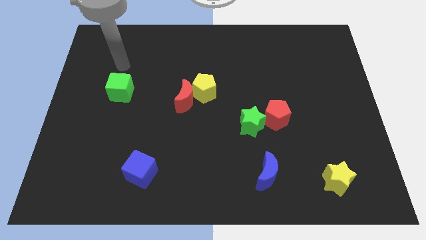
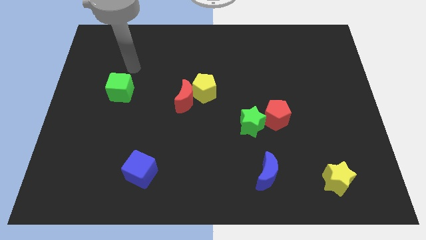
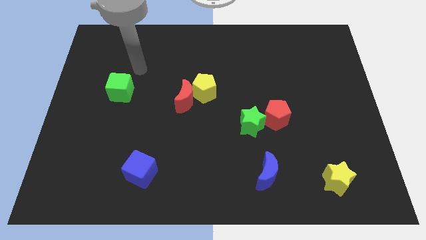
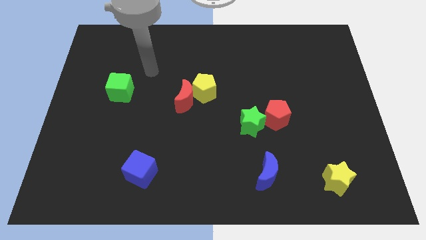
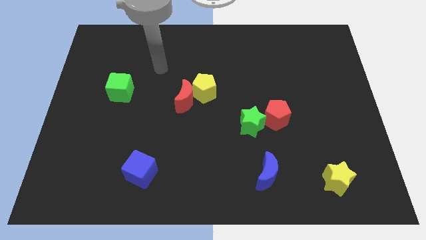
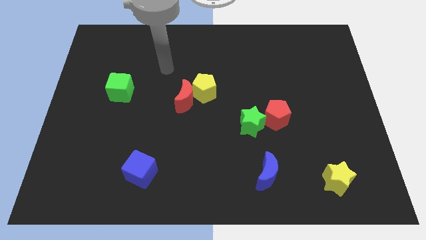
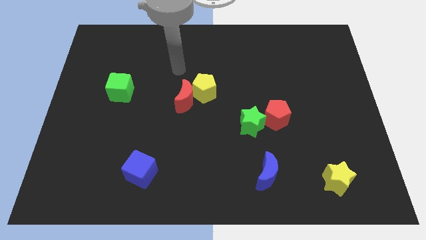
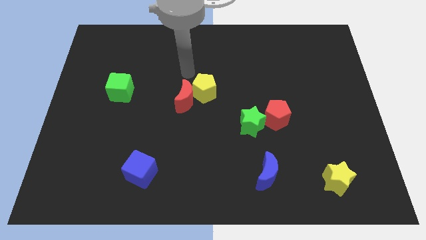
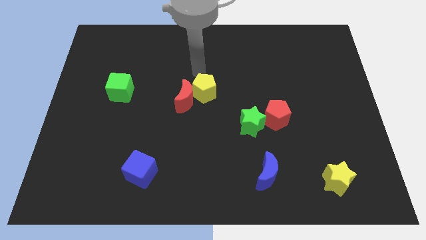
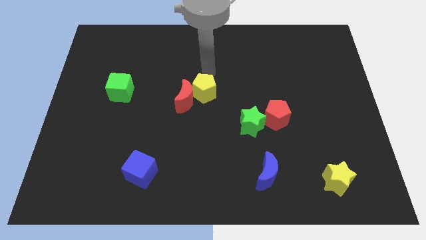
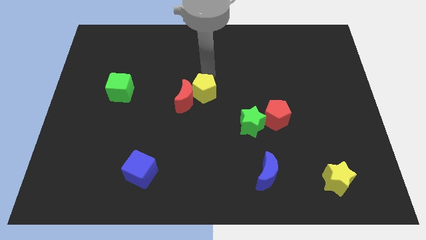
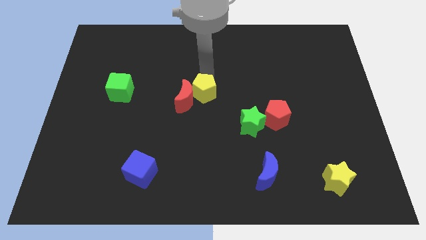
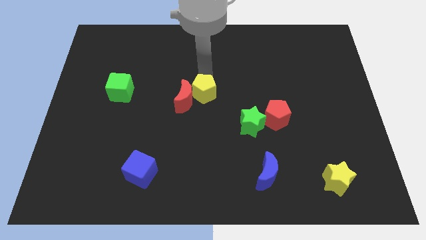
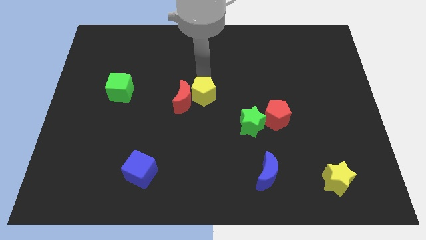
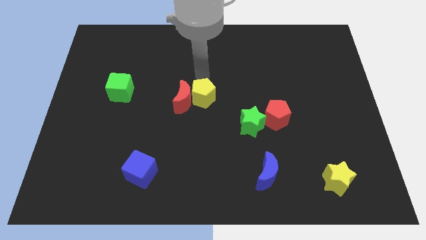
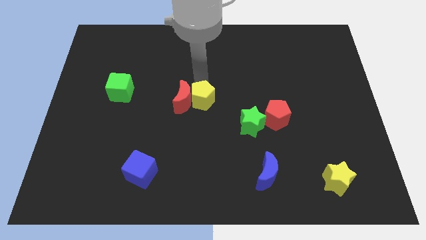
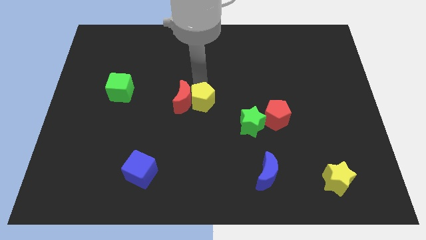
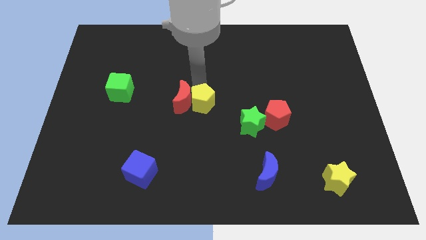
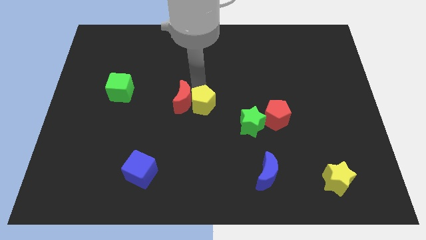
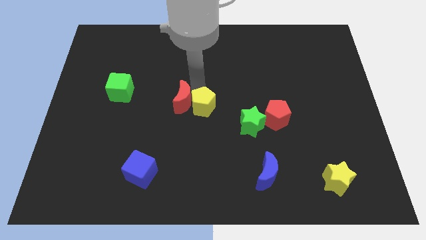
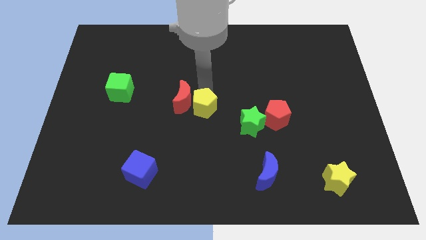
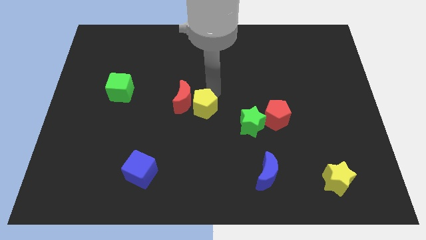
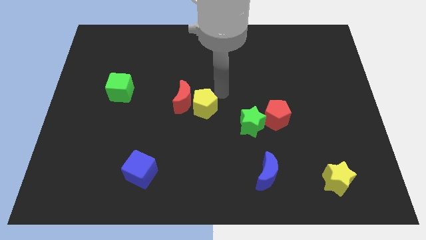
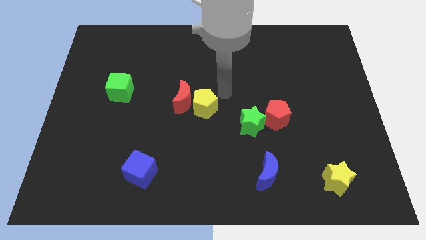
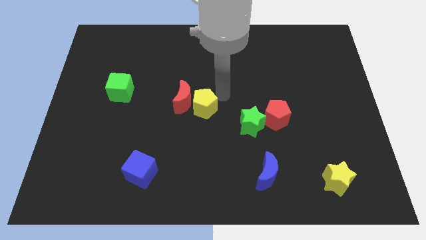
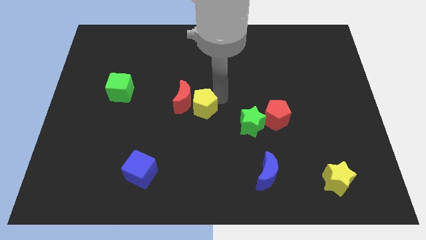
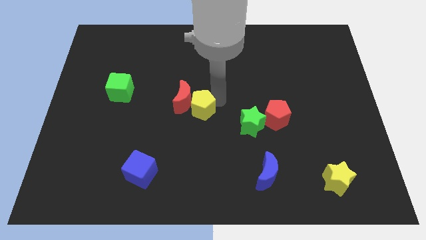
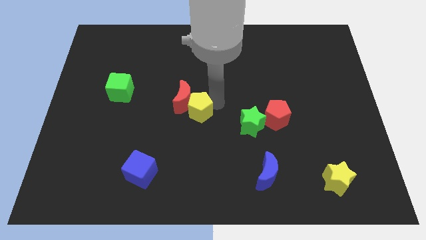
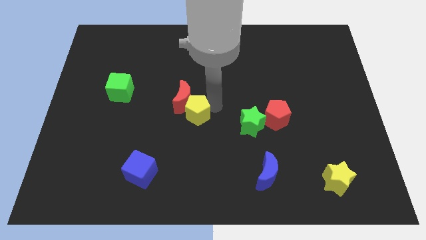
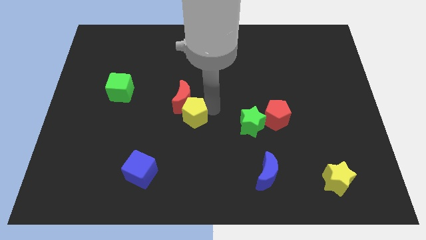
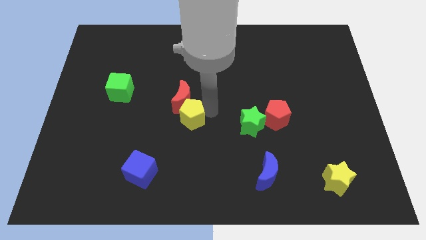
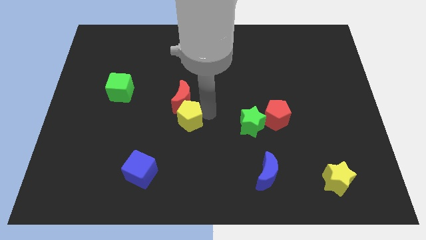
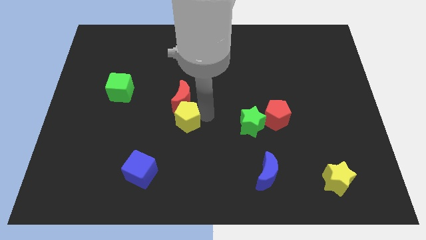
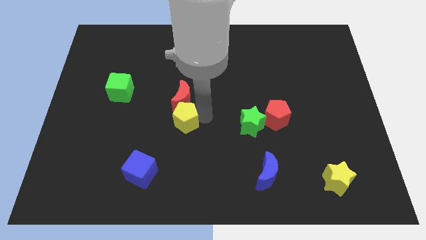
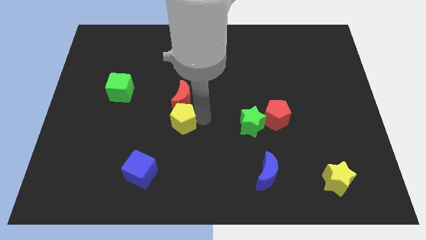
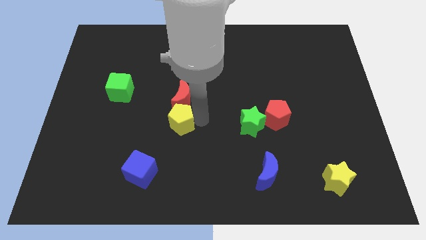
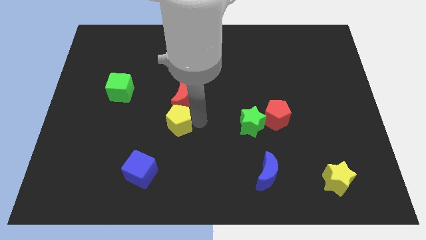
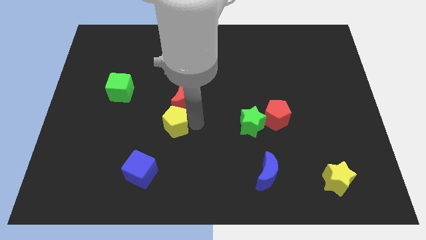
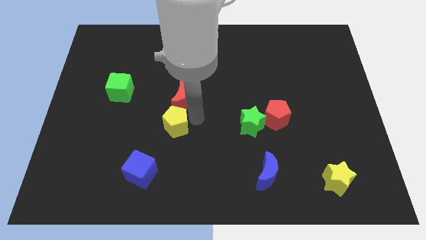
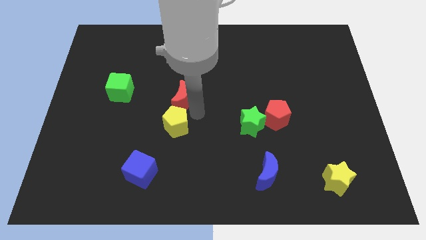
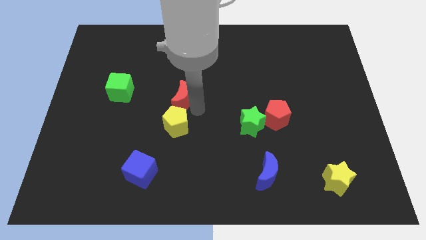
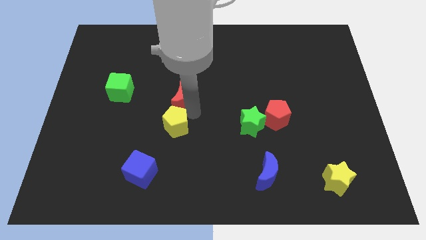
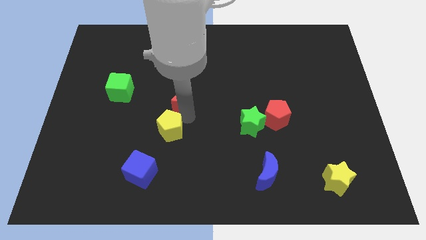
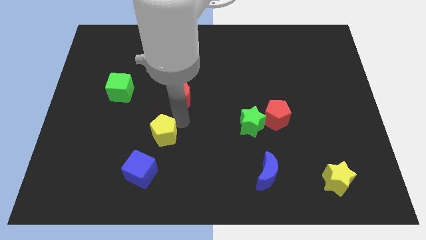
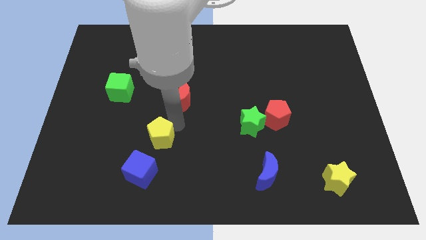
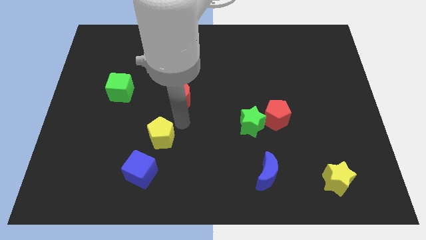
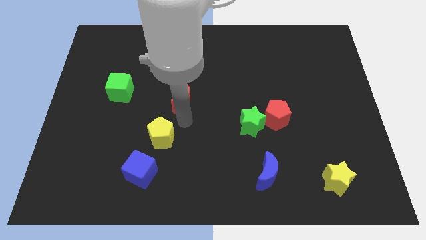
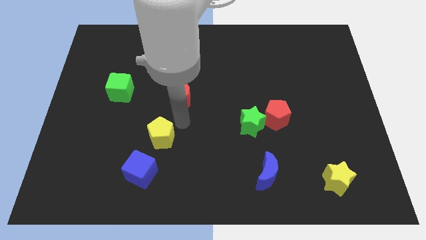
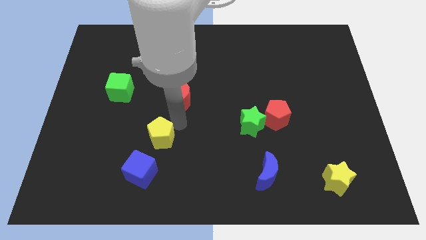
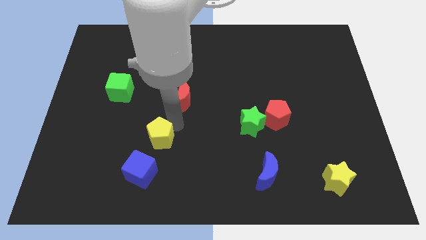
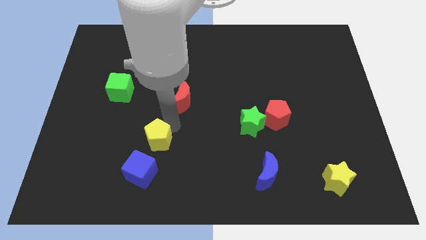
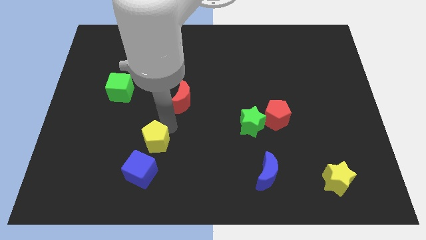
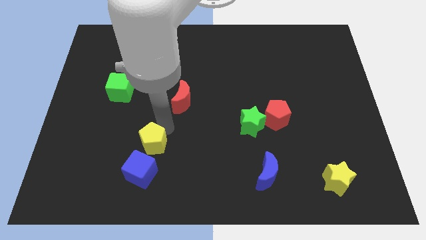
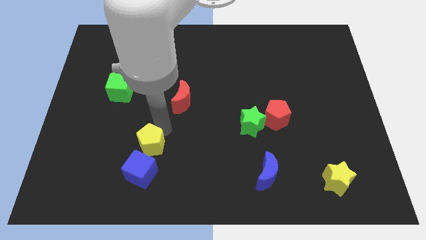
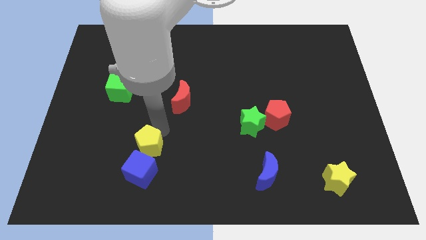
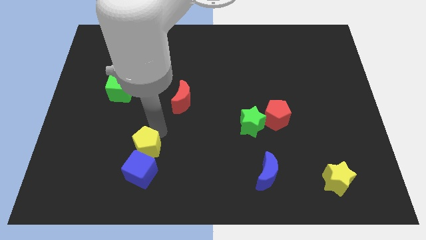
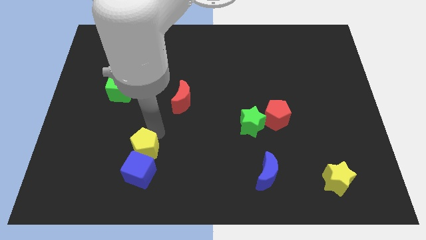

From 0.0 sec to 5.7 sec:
slide the yellow pentagon downwards and left diagonally

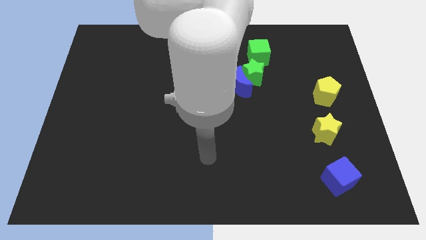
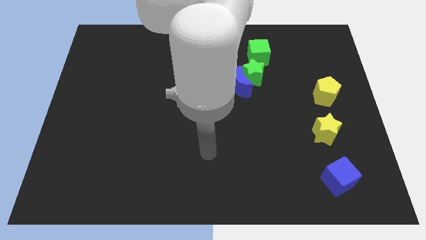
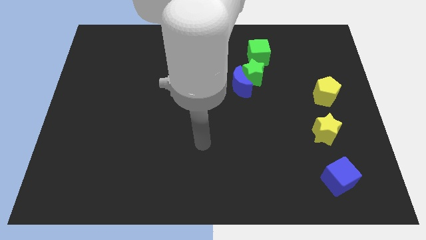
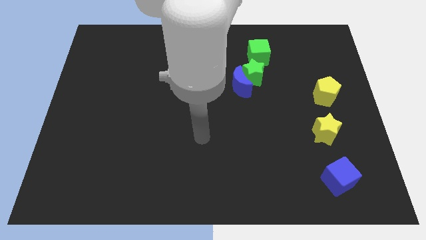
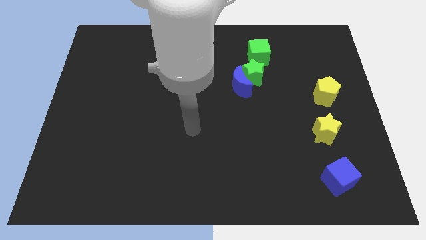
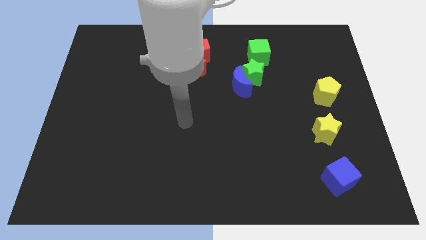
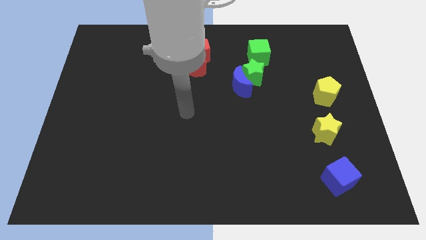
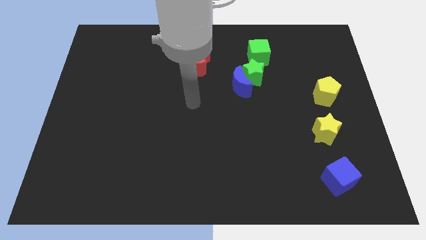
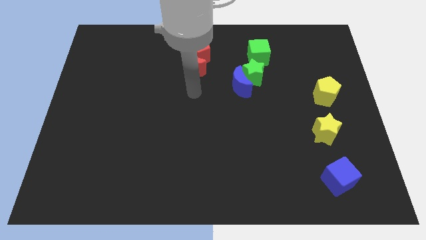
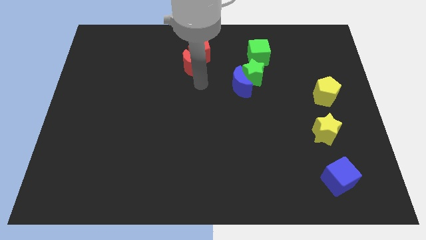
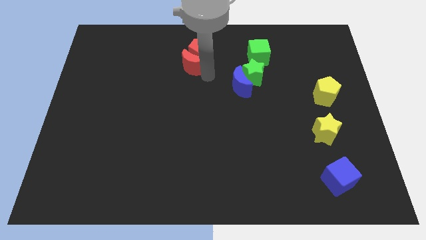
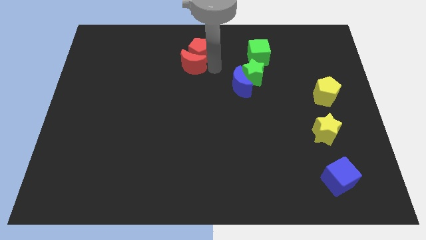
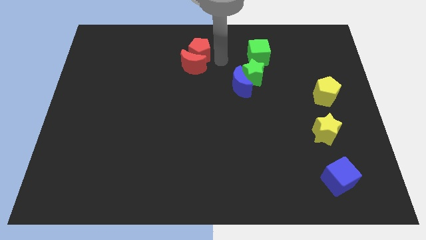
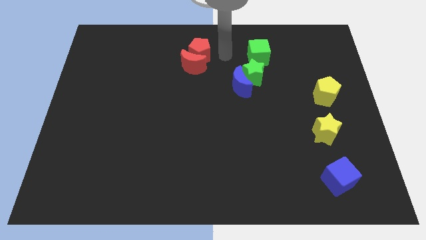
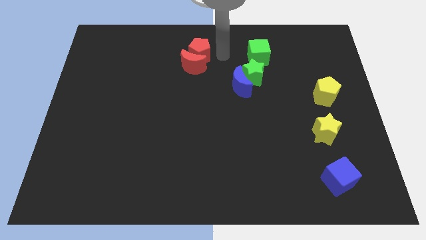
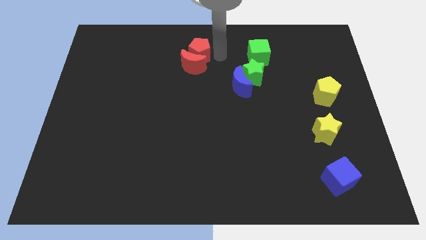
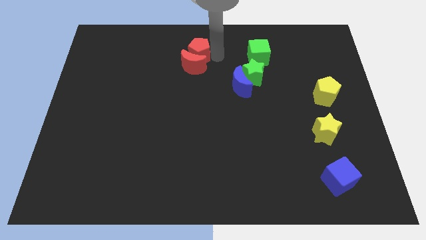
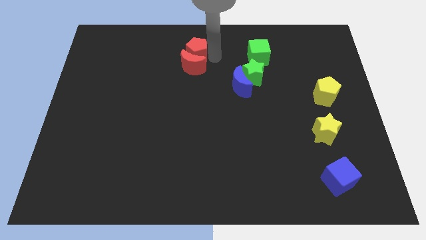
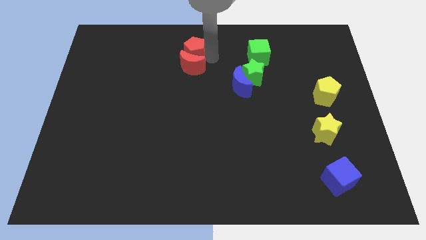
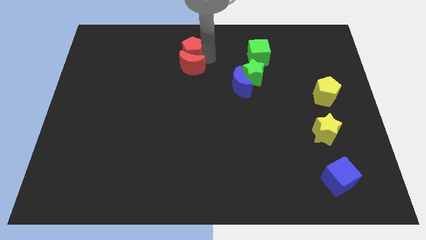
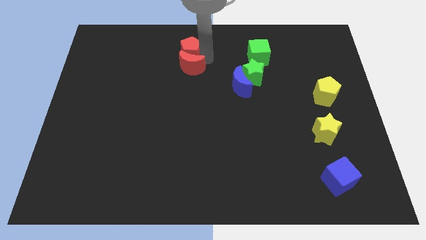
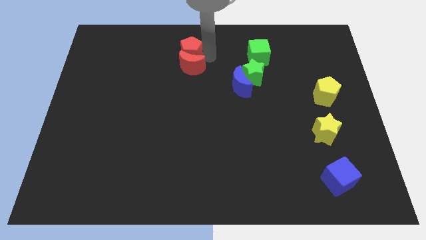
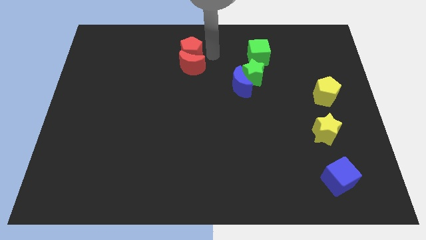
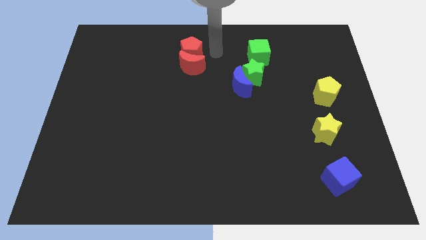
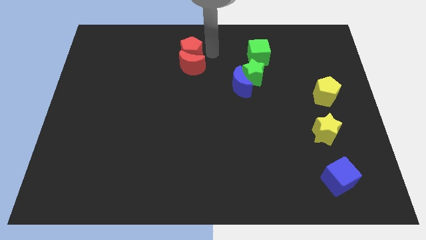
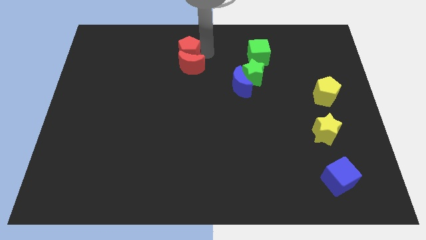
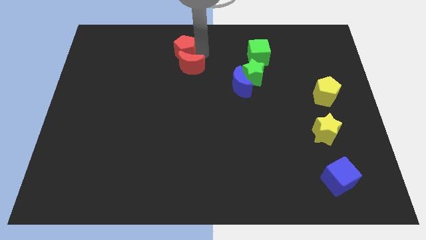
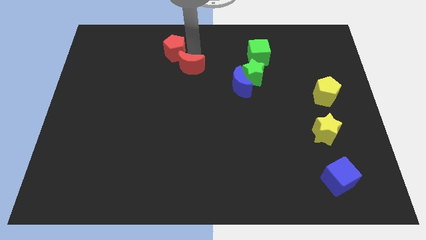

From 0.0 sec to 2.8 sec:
slide the red pentagon to the left a little
